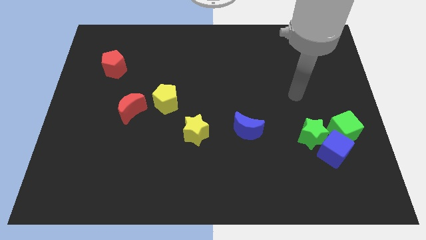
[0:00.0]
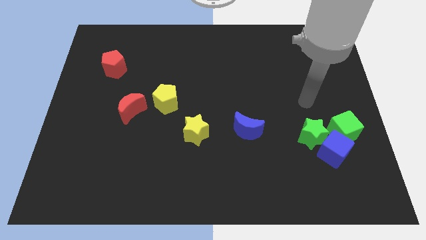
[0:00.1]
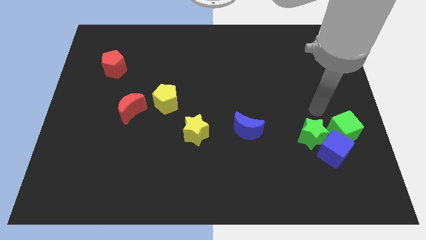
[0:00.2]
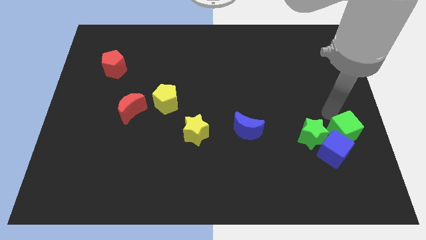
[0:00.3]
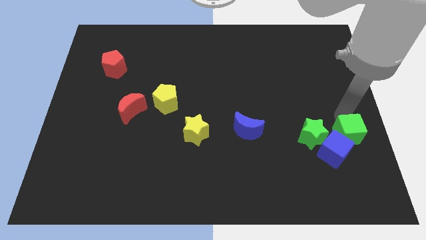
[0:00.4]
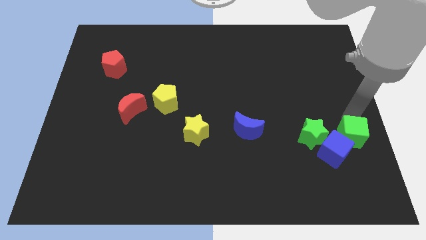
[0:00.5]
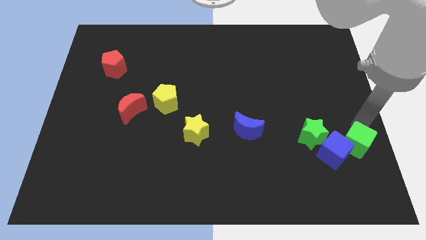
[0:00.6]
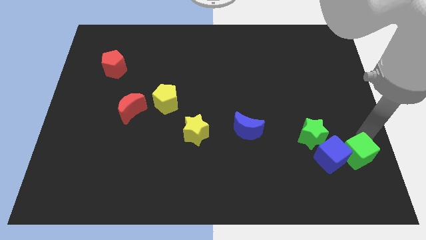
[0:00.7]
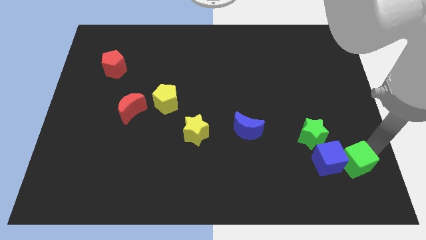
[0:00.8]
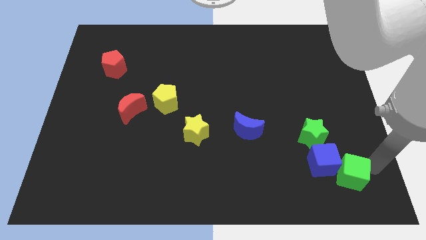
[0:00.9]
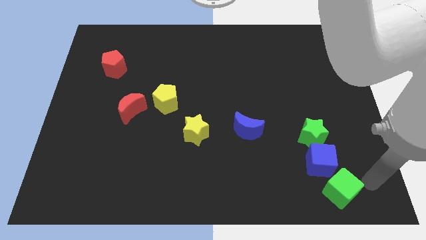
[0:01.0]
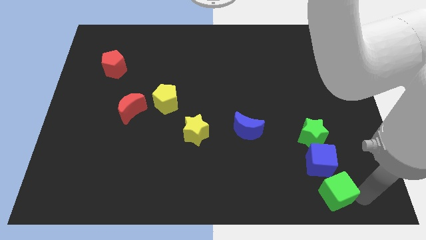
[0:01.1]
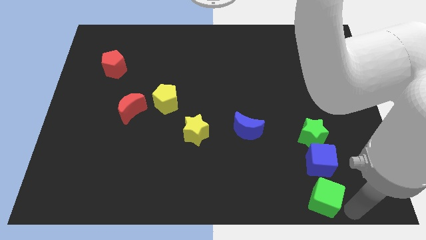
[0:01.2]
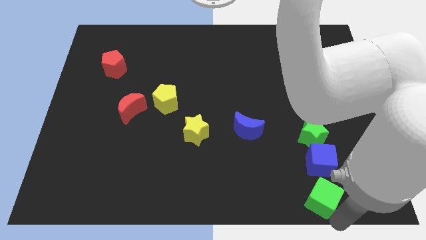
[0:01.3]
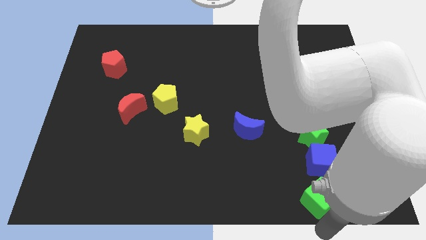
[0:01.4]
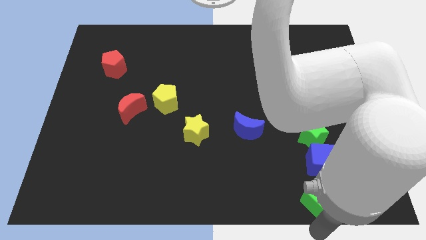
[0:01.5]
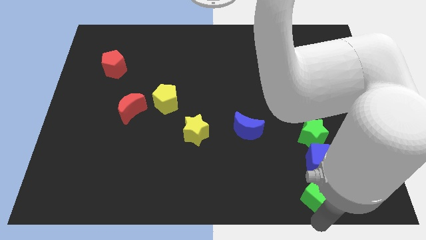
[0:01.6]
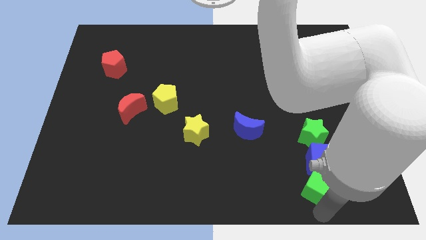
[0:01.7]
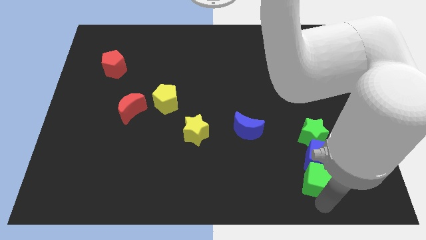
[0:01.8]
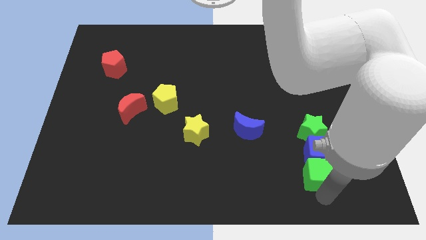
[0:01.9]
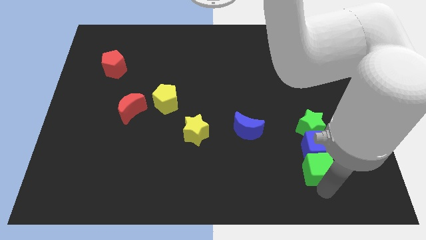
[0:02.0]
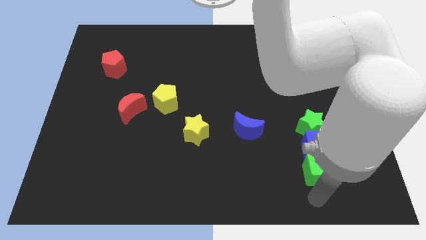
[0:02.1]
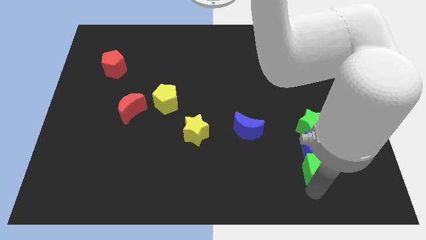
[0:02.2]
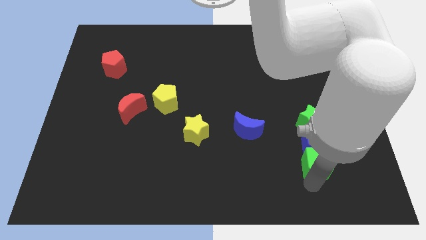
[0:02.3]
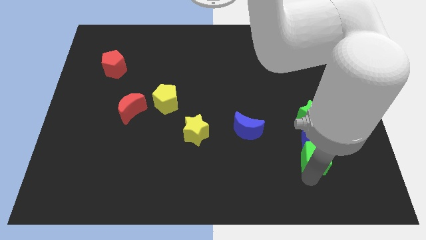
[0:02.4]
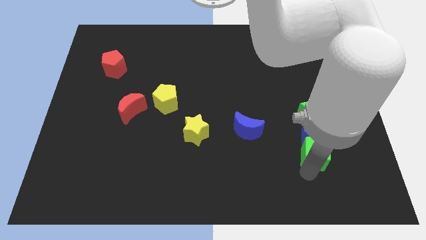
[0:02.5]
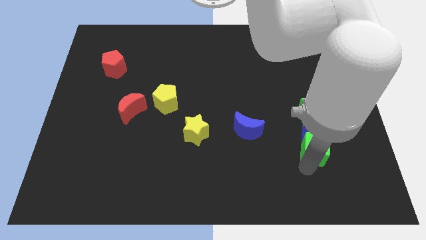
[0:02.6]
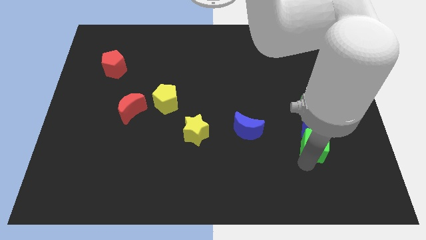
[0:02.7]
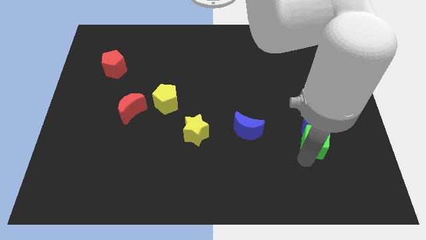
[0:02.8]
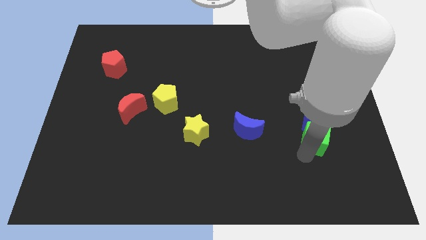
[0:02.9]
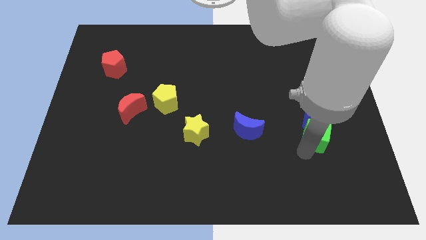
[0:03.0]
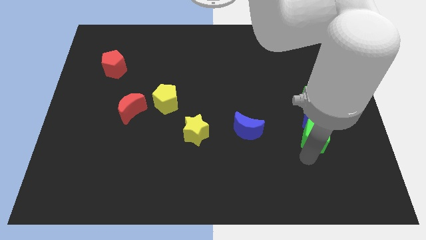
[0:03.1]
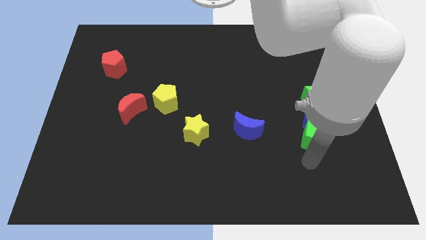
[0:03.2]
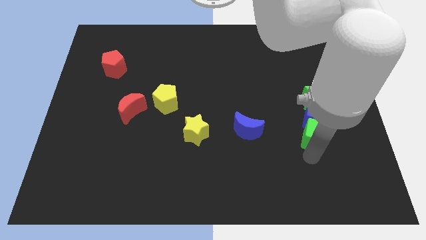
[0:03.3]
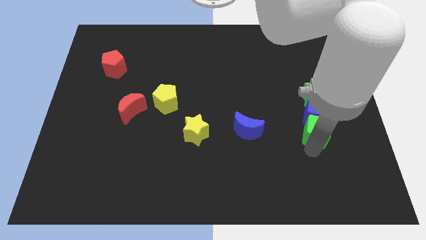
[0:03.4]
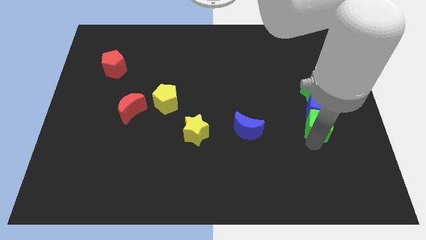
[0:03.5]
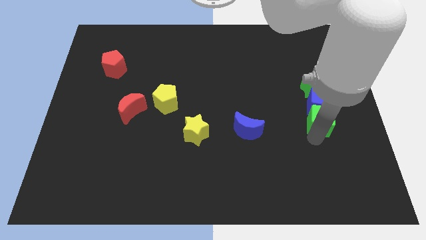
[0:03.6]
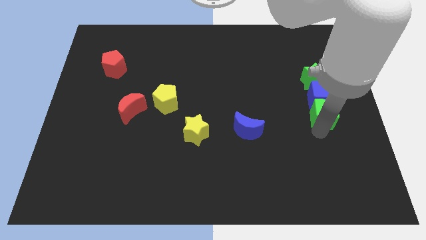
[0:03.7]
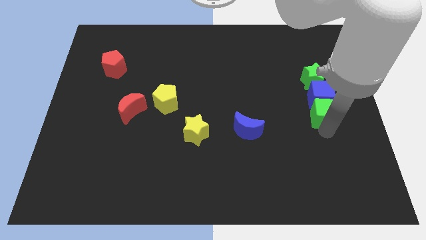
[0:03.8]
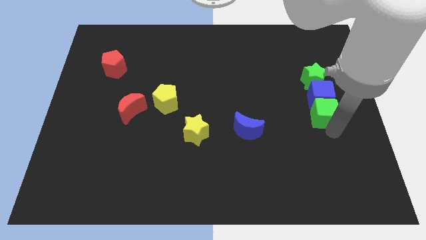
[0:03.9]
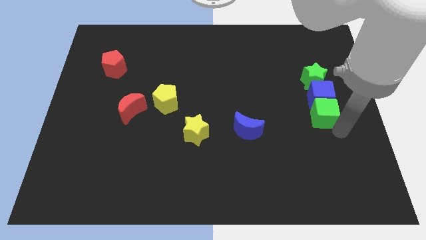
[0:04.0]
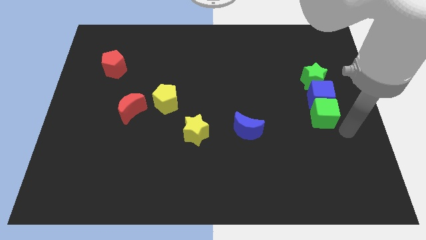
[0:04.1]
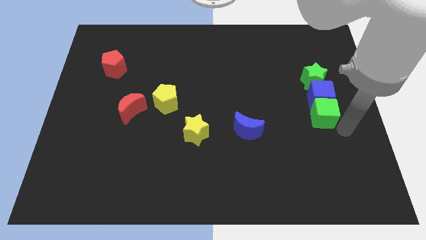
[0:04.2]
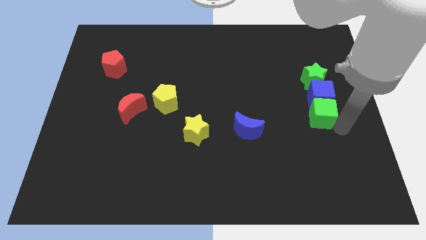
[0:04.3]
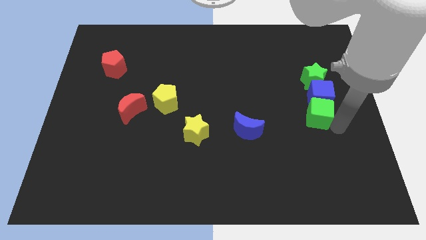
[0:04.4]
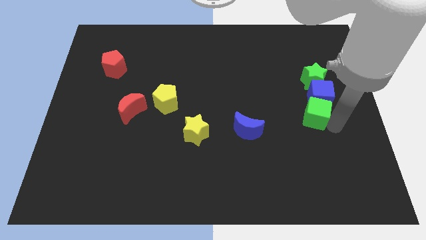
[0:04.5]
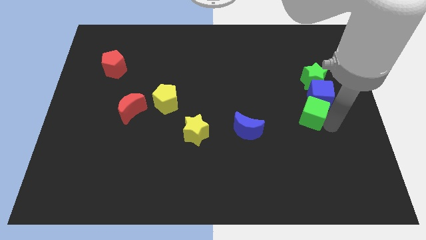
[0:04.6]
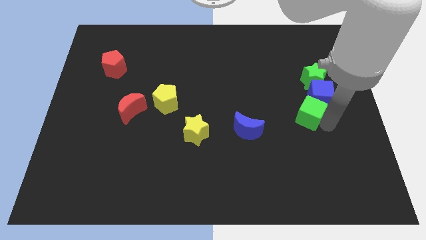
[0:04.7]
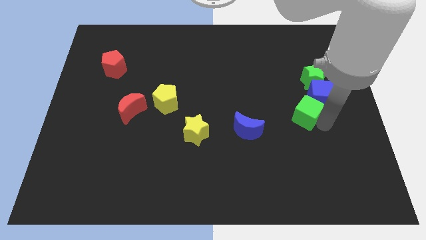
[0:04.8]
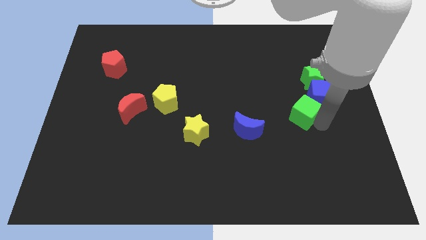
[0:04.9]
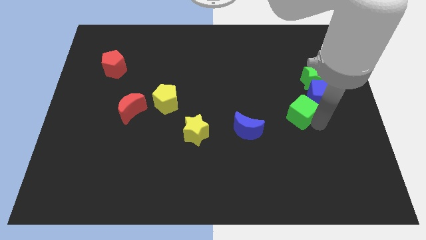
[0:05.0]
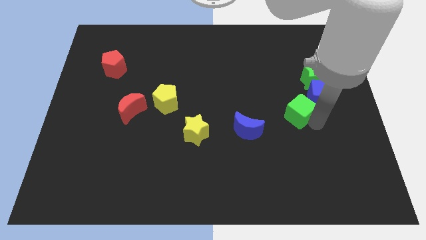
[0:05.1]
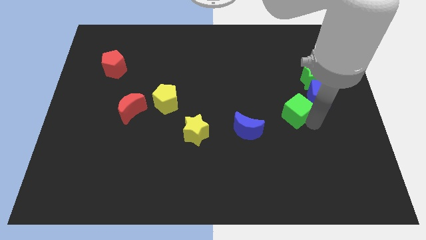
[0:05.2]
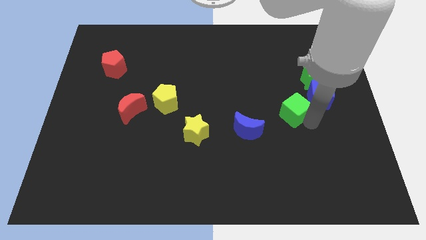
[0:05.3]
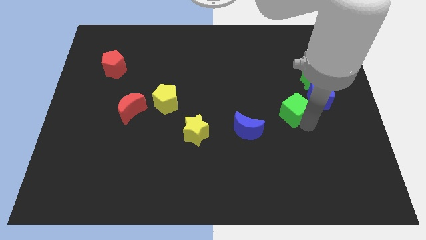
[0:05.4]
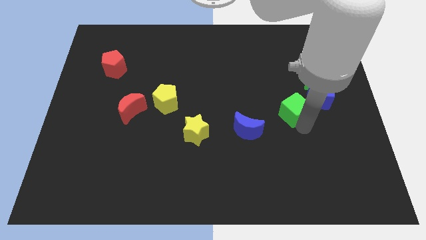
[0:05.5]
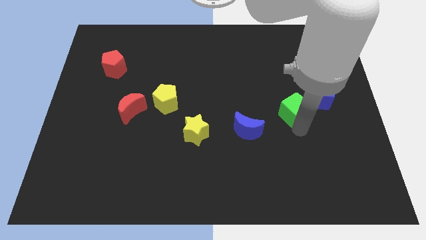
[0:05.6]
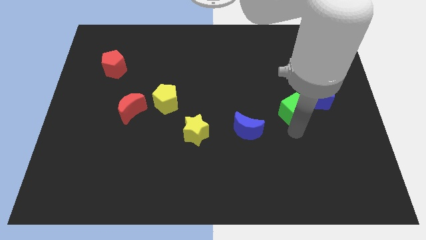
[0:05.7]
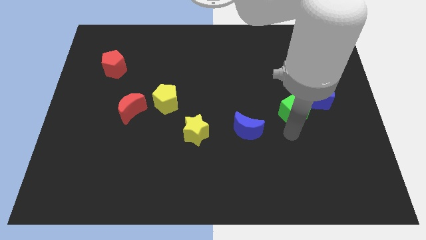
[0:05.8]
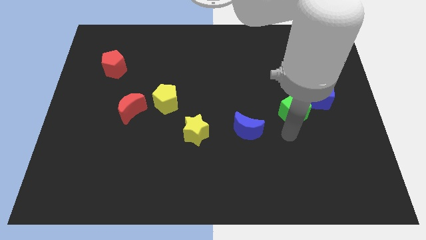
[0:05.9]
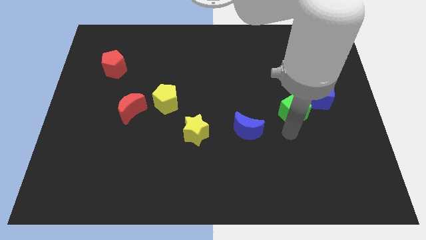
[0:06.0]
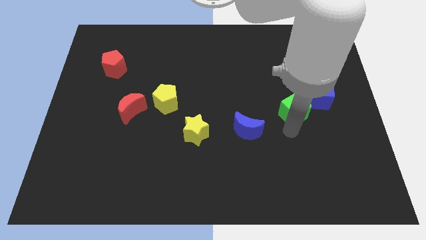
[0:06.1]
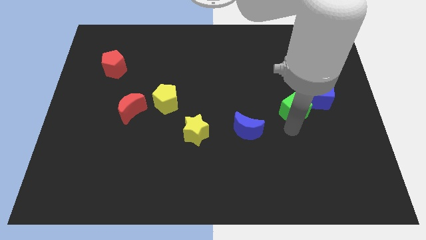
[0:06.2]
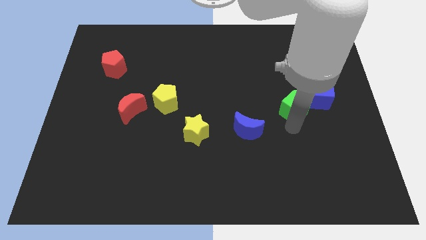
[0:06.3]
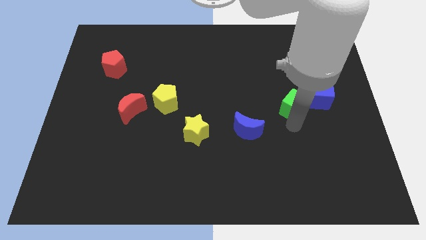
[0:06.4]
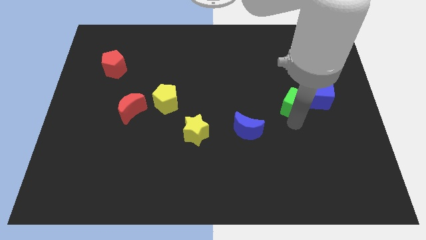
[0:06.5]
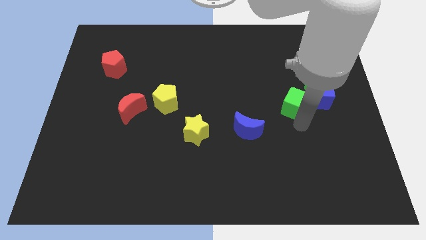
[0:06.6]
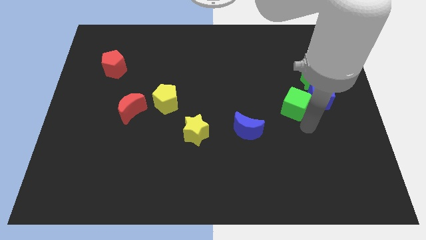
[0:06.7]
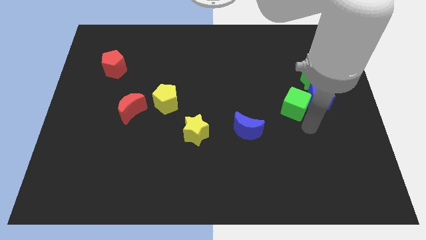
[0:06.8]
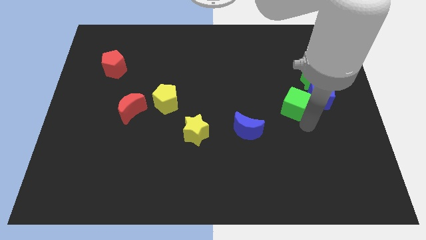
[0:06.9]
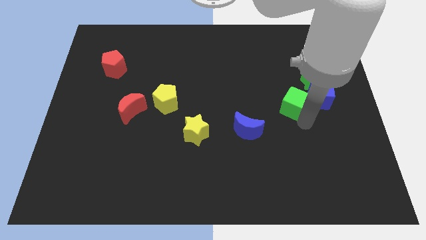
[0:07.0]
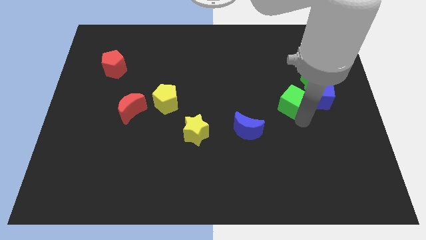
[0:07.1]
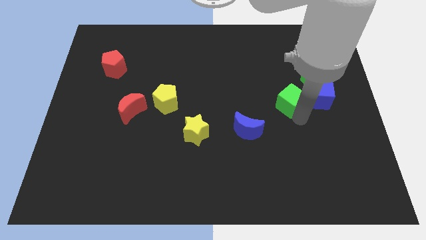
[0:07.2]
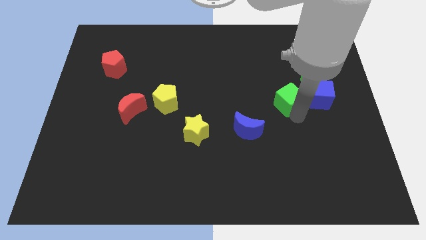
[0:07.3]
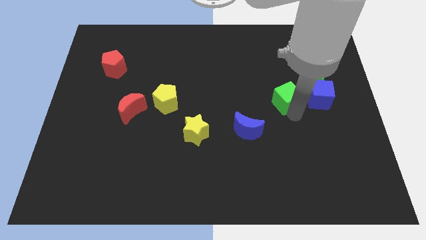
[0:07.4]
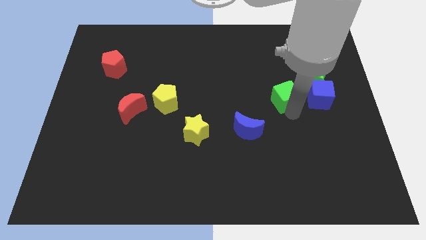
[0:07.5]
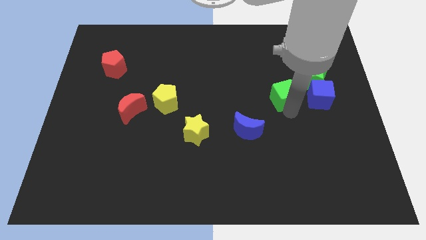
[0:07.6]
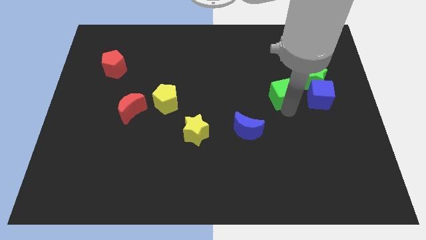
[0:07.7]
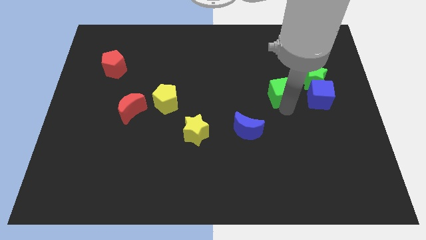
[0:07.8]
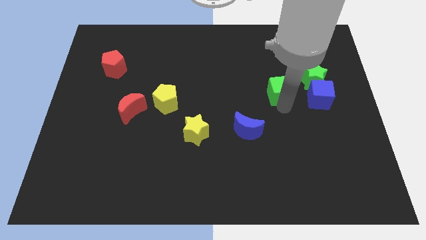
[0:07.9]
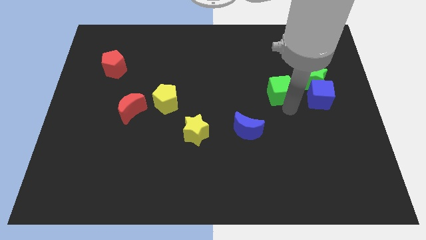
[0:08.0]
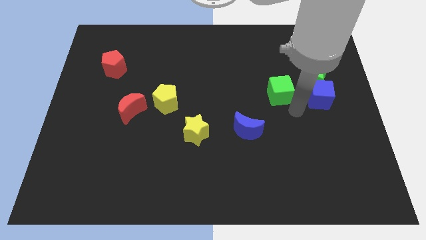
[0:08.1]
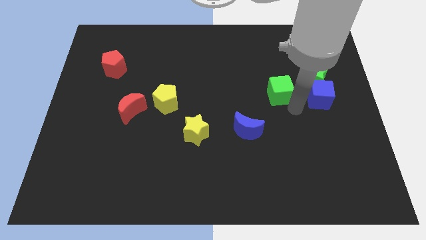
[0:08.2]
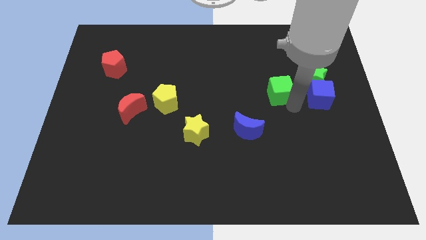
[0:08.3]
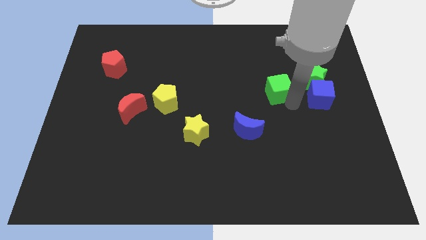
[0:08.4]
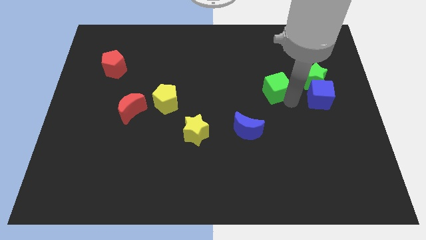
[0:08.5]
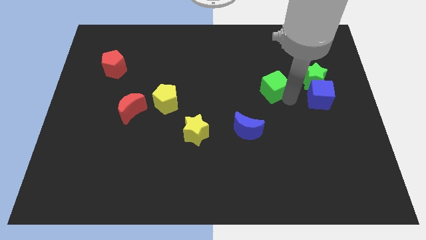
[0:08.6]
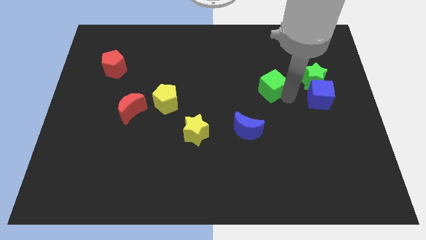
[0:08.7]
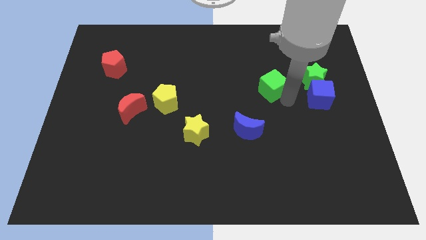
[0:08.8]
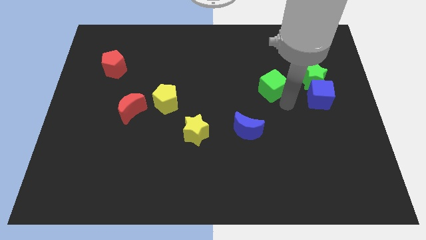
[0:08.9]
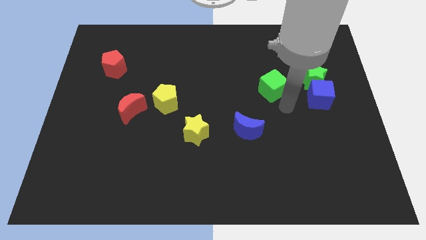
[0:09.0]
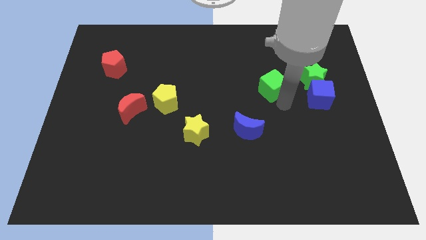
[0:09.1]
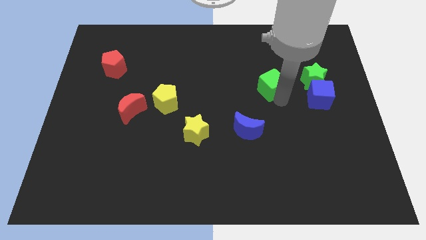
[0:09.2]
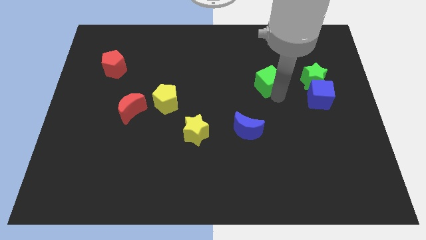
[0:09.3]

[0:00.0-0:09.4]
push the green cube diagonally upwards and left
